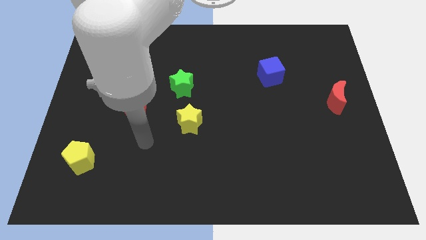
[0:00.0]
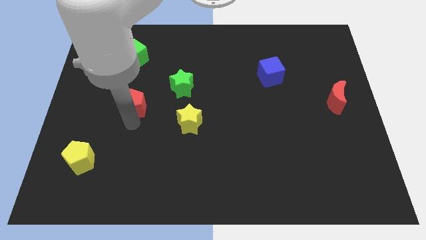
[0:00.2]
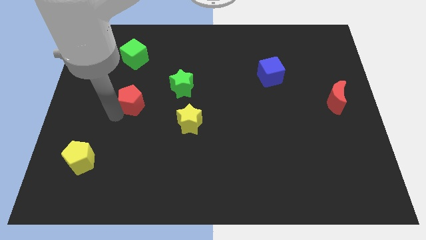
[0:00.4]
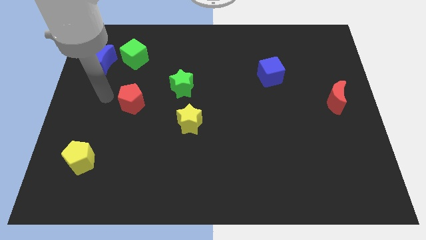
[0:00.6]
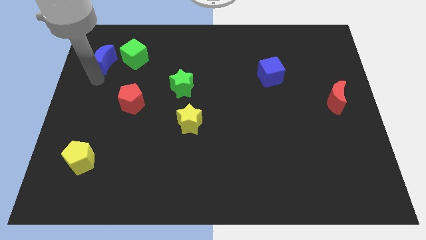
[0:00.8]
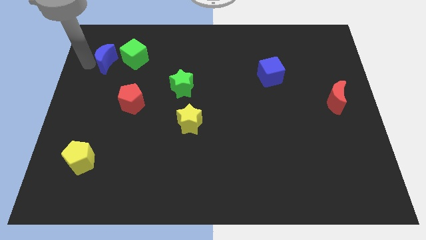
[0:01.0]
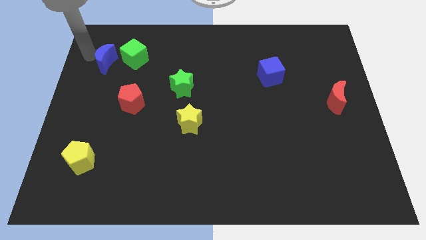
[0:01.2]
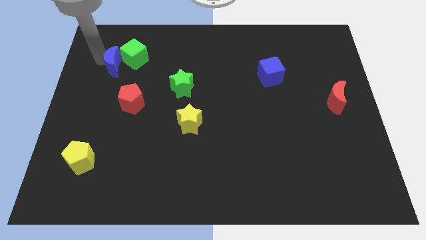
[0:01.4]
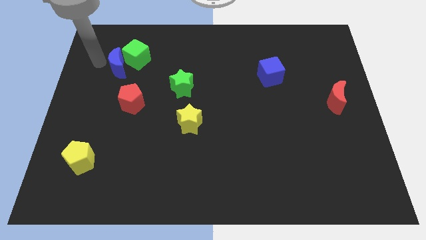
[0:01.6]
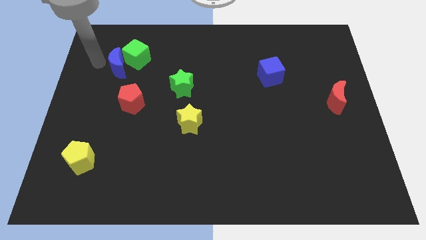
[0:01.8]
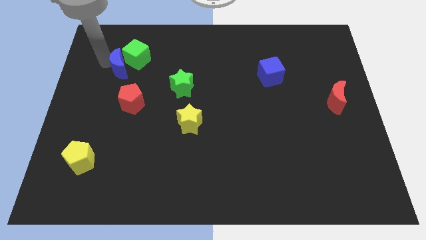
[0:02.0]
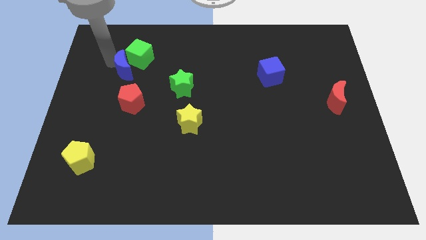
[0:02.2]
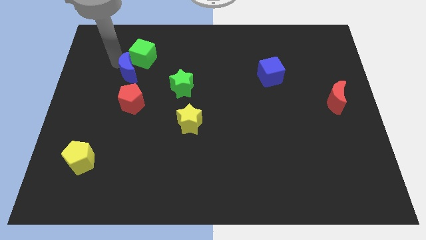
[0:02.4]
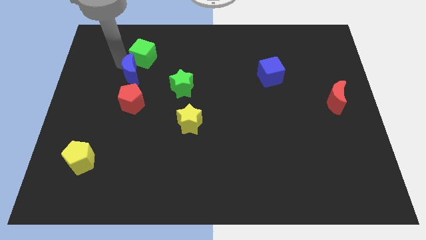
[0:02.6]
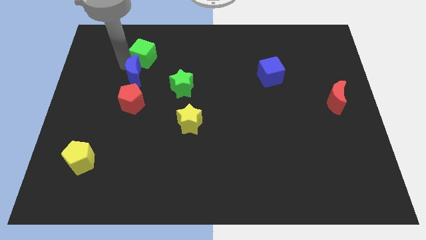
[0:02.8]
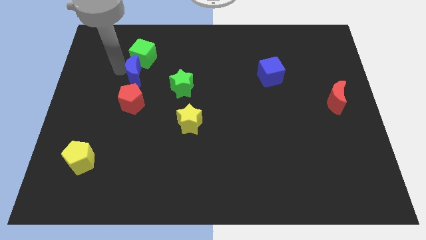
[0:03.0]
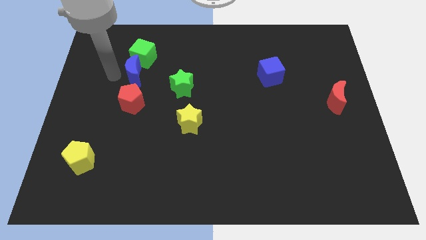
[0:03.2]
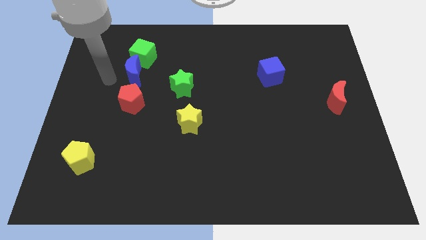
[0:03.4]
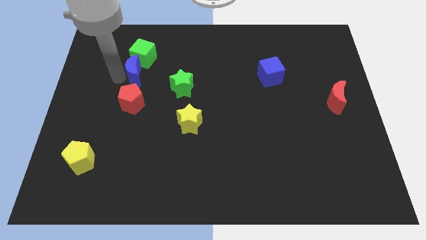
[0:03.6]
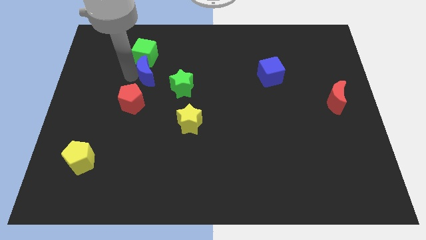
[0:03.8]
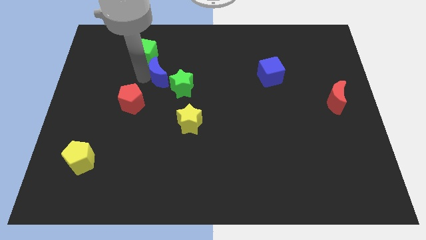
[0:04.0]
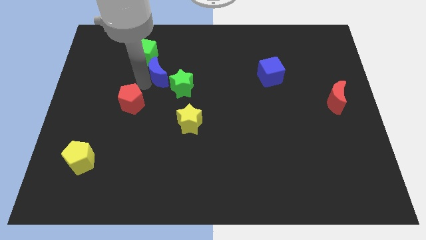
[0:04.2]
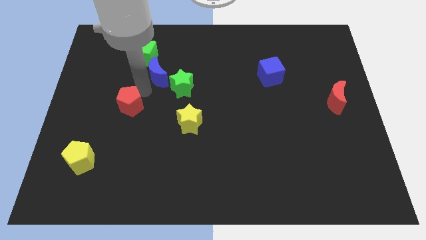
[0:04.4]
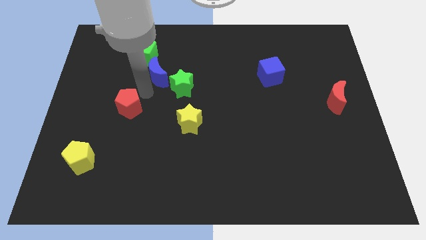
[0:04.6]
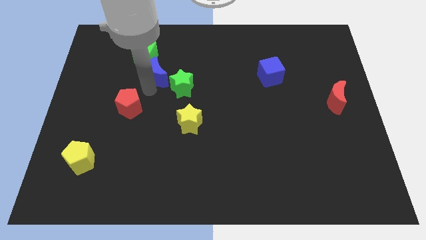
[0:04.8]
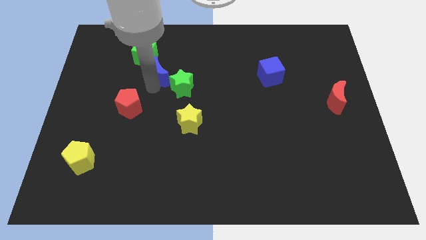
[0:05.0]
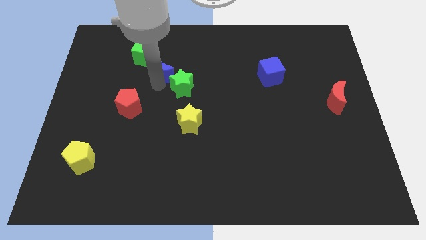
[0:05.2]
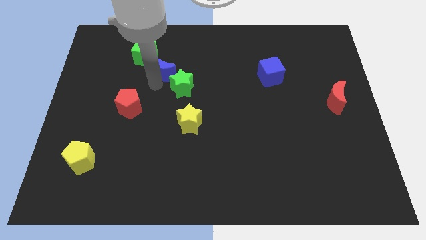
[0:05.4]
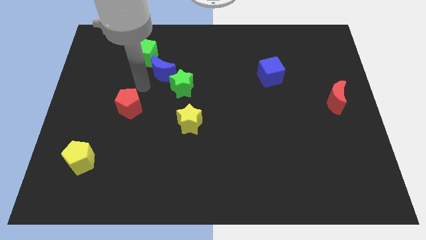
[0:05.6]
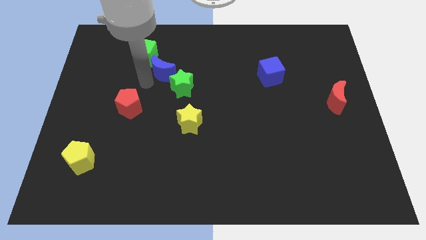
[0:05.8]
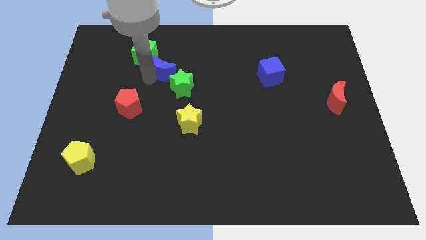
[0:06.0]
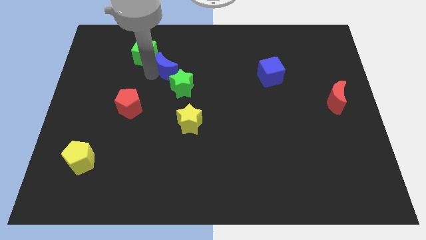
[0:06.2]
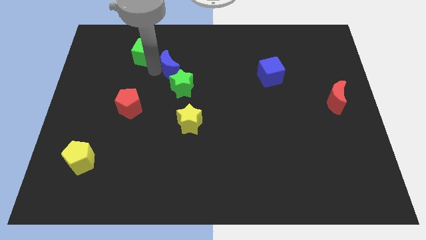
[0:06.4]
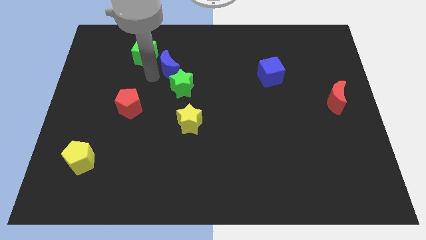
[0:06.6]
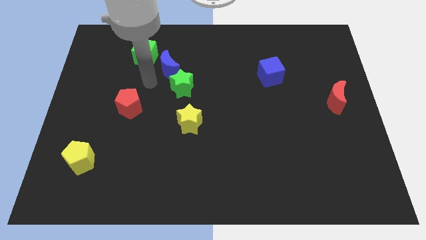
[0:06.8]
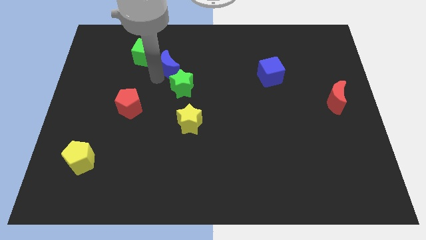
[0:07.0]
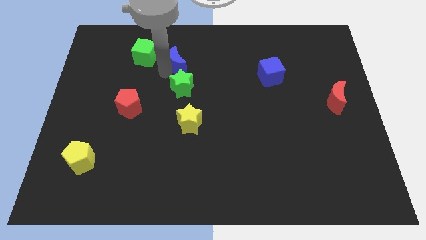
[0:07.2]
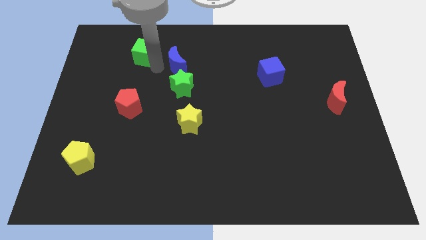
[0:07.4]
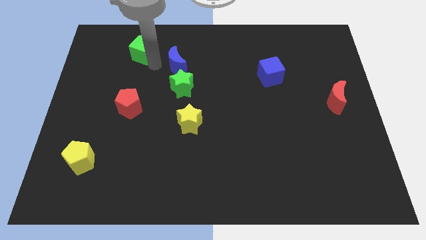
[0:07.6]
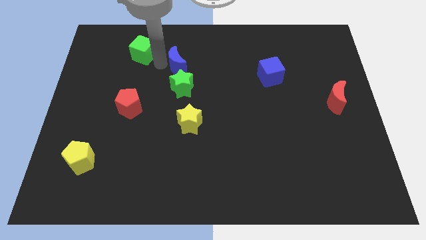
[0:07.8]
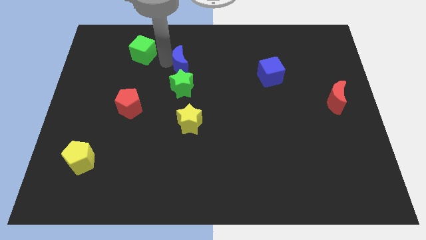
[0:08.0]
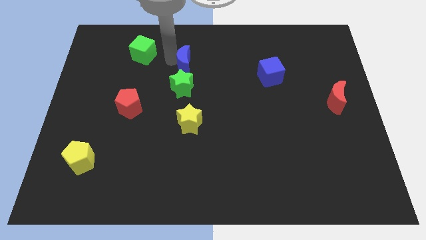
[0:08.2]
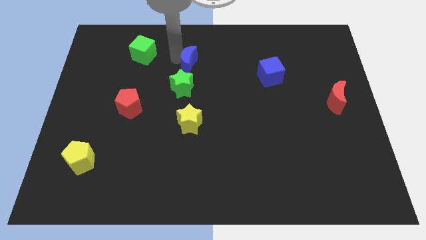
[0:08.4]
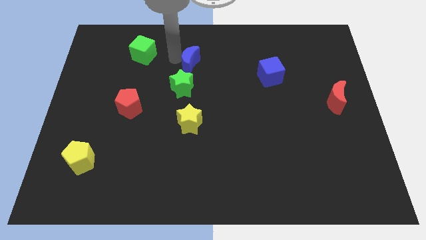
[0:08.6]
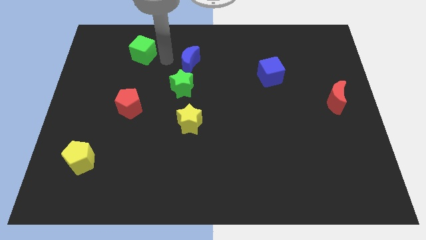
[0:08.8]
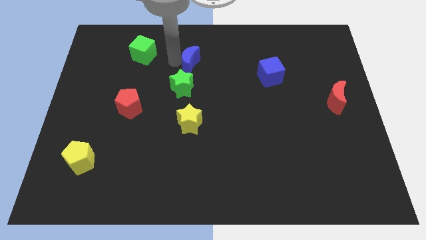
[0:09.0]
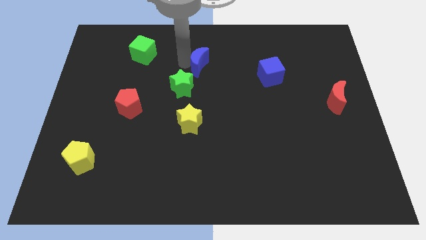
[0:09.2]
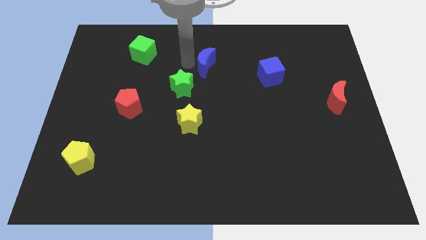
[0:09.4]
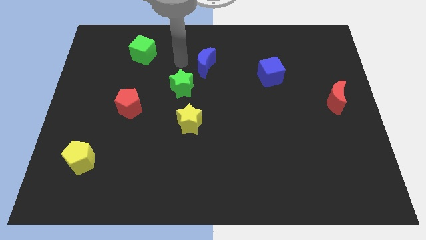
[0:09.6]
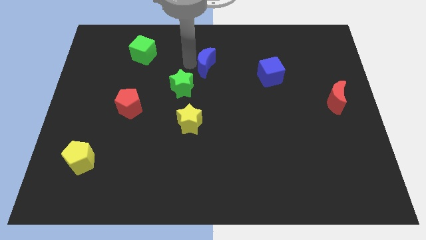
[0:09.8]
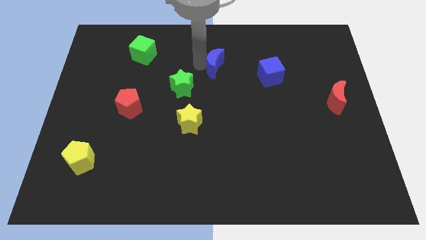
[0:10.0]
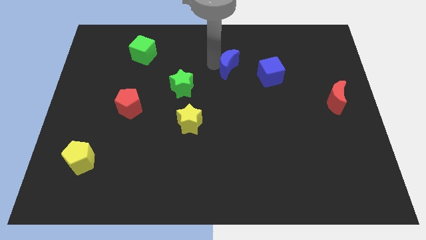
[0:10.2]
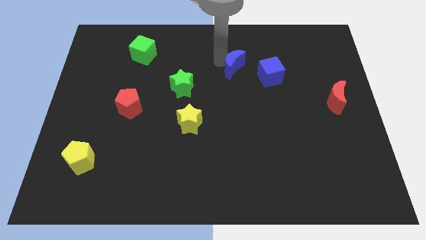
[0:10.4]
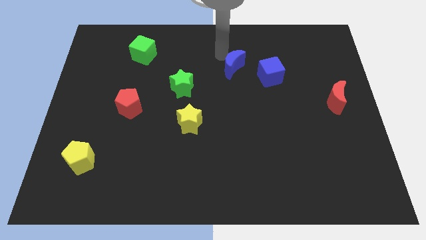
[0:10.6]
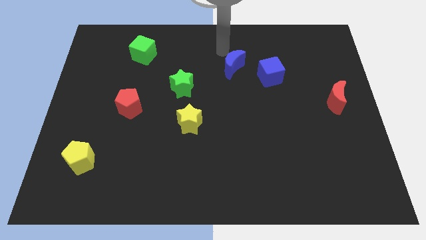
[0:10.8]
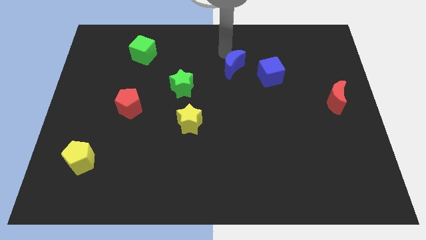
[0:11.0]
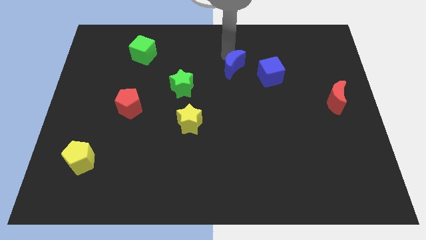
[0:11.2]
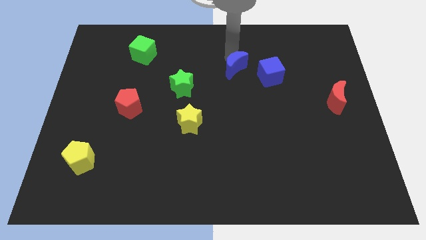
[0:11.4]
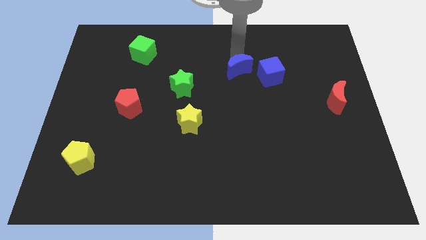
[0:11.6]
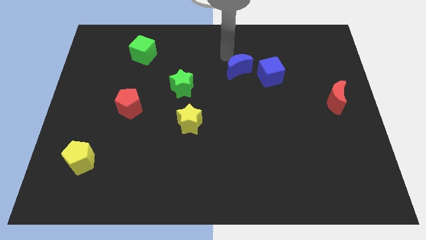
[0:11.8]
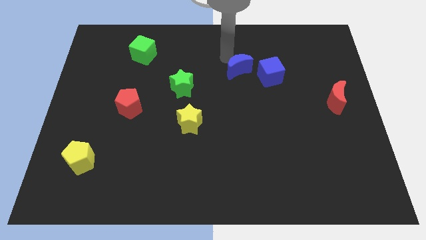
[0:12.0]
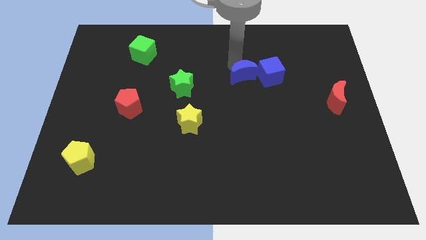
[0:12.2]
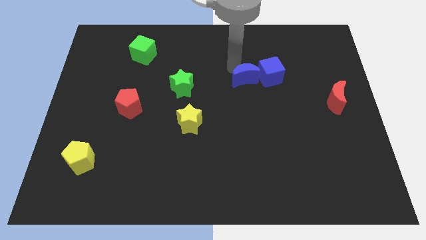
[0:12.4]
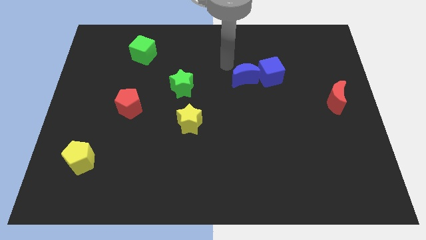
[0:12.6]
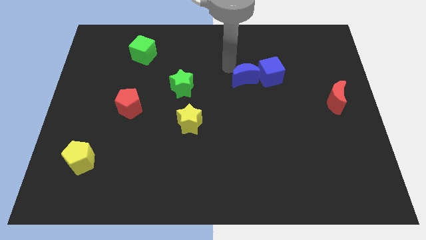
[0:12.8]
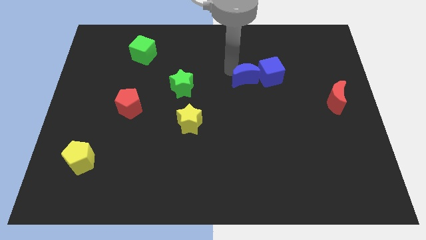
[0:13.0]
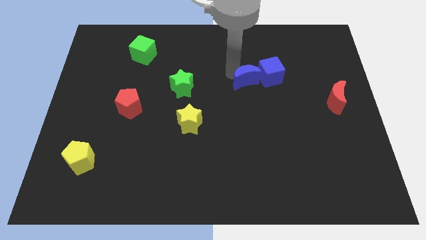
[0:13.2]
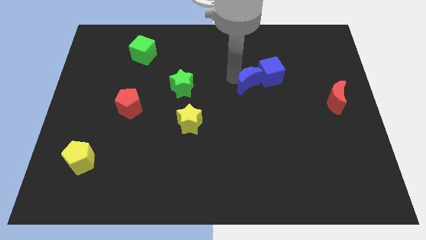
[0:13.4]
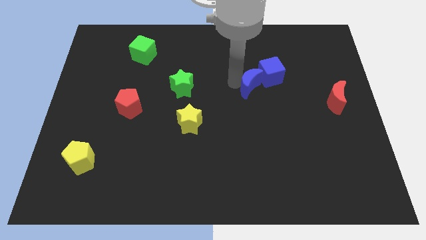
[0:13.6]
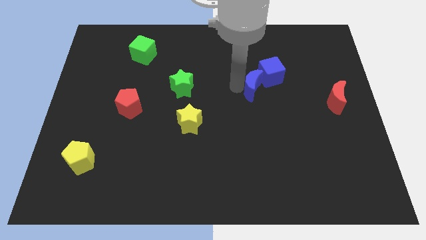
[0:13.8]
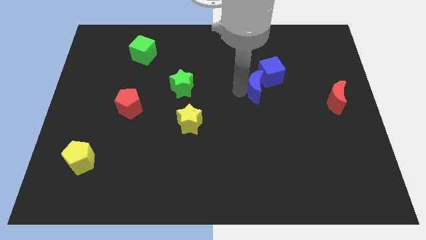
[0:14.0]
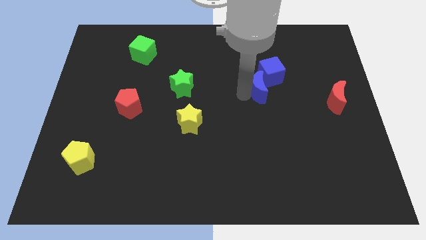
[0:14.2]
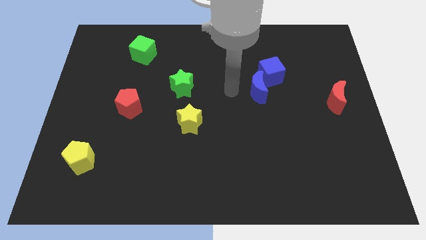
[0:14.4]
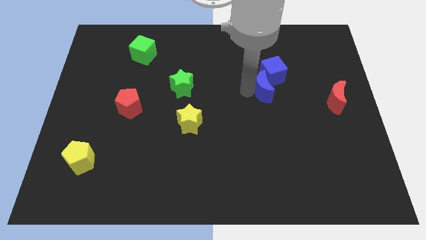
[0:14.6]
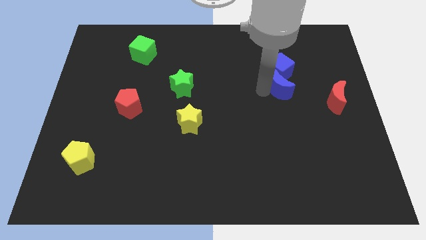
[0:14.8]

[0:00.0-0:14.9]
push the blue moon diagonally down and to the right of the blue cube
